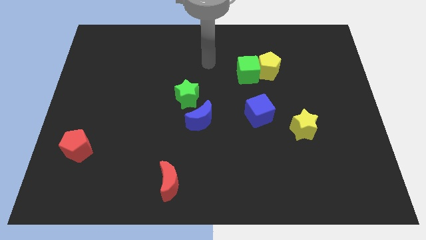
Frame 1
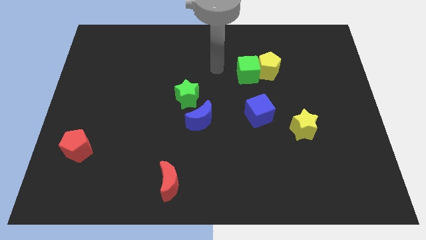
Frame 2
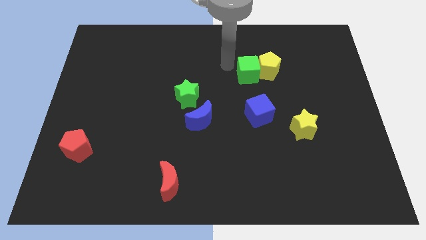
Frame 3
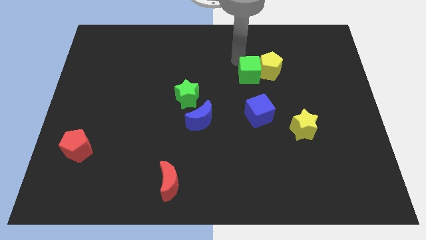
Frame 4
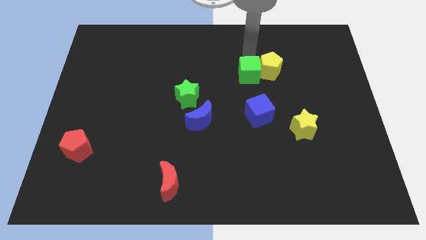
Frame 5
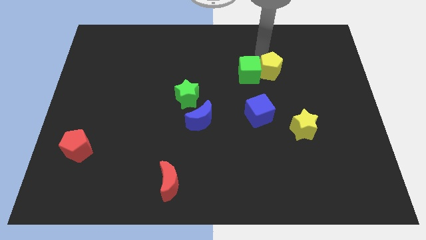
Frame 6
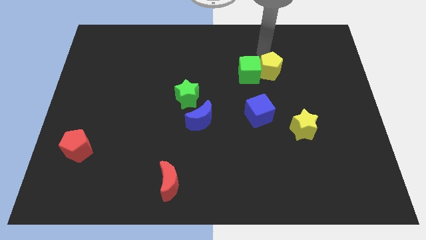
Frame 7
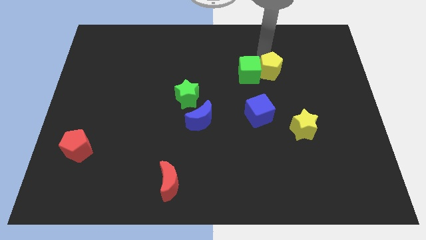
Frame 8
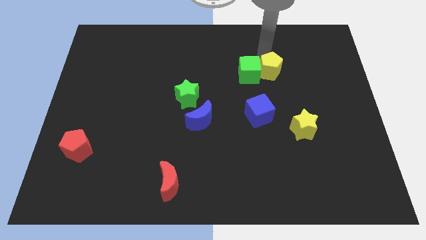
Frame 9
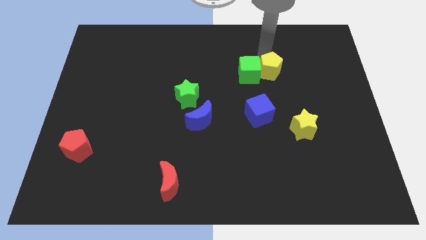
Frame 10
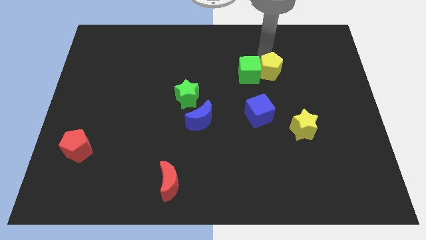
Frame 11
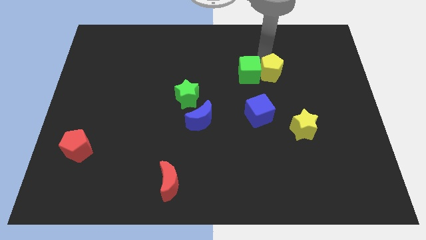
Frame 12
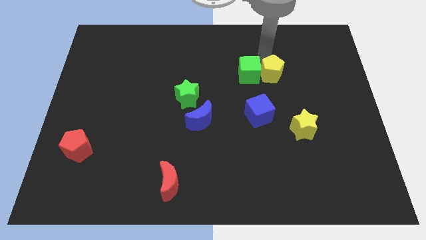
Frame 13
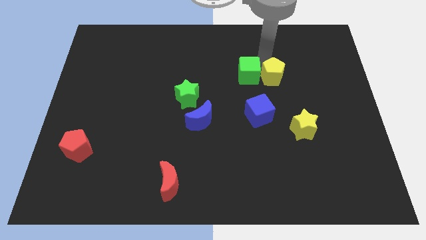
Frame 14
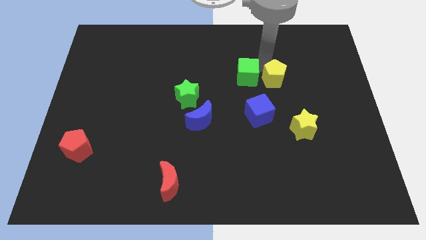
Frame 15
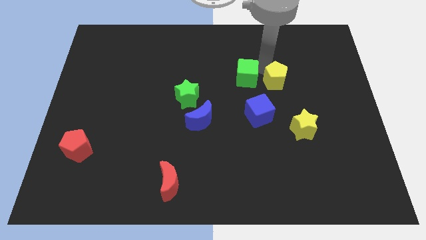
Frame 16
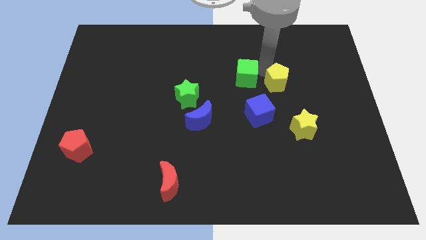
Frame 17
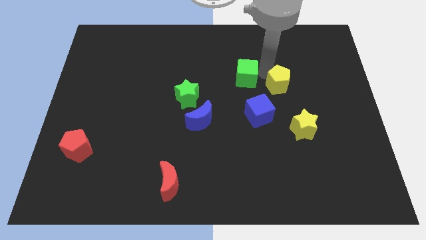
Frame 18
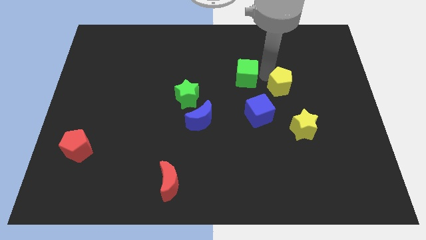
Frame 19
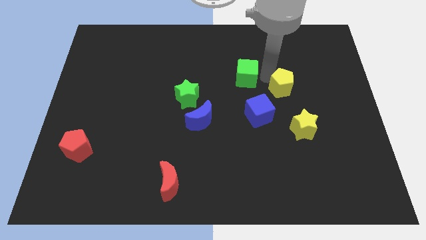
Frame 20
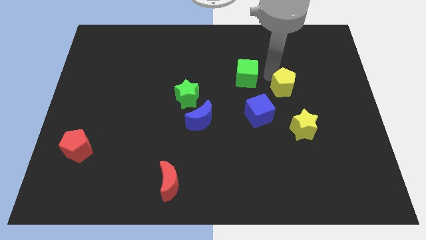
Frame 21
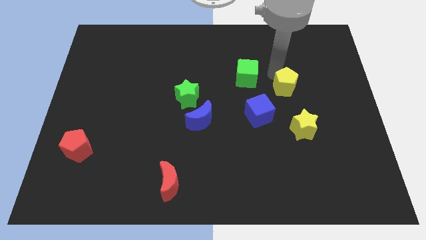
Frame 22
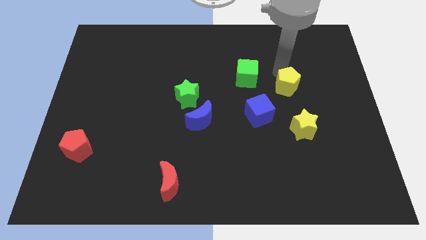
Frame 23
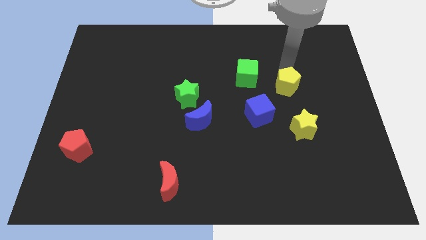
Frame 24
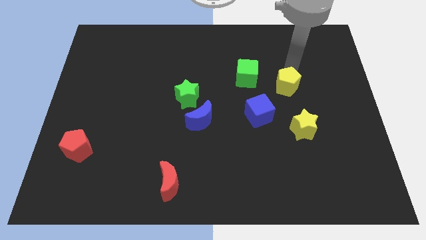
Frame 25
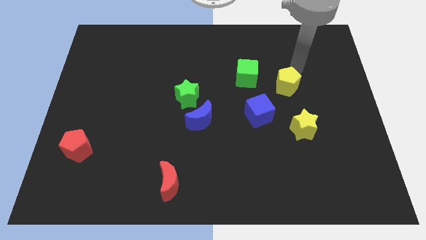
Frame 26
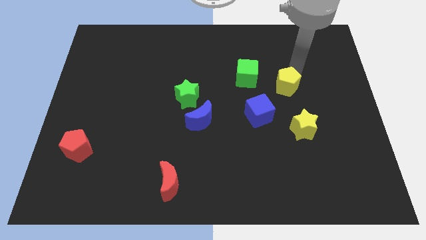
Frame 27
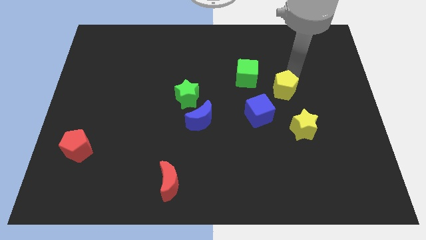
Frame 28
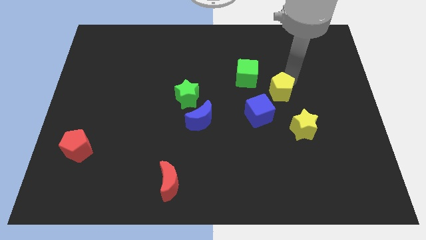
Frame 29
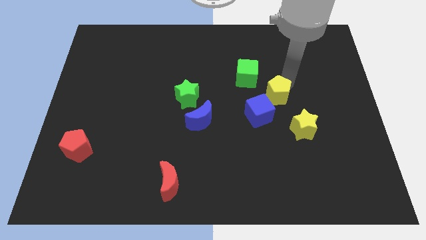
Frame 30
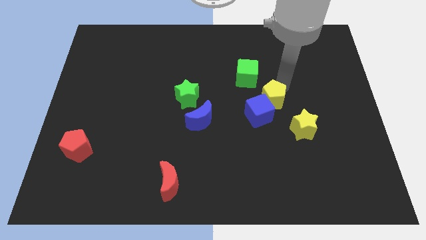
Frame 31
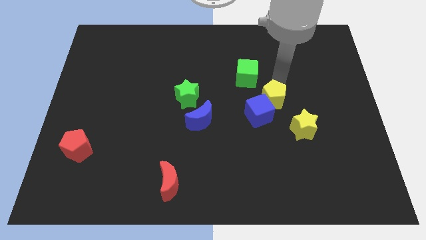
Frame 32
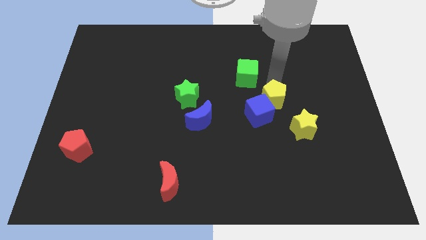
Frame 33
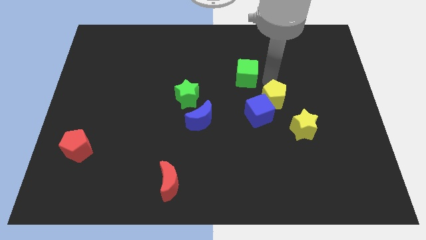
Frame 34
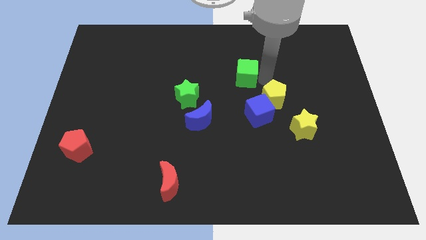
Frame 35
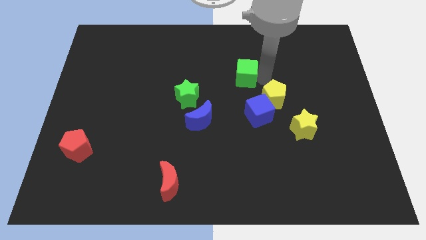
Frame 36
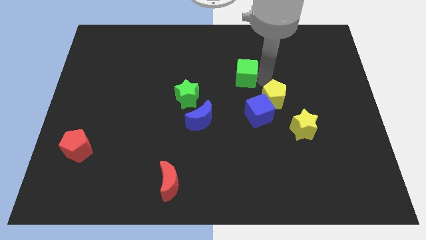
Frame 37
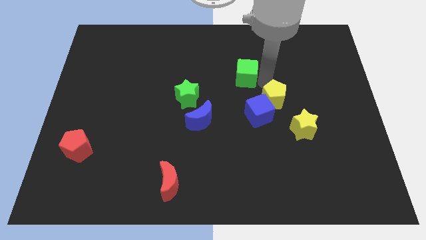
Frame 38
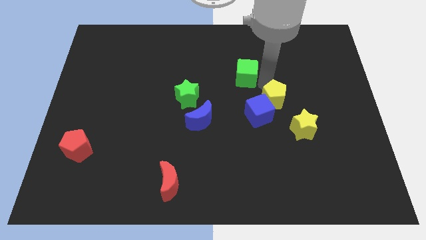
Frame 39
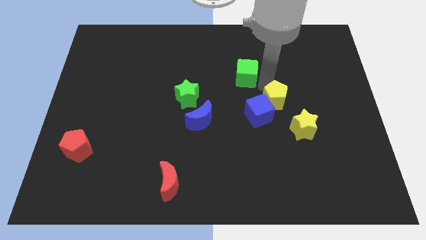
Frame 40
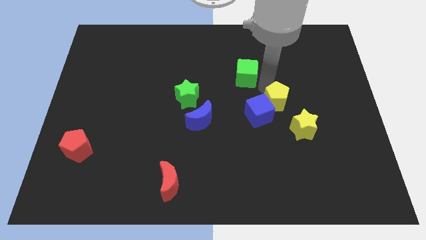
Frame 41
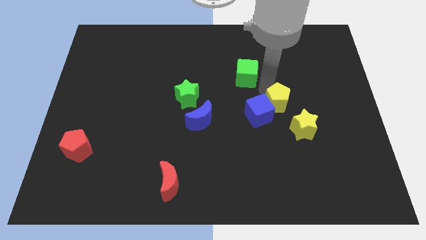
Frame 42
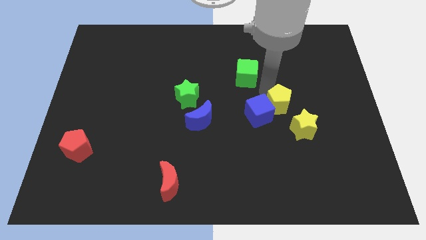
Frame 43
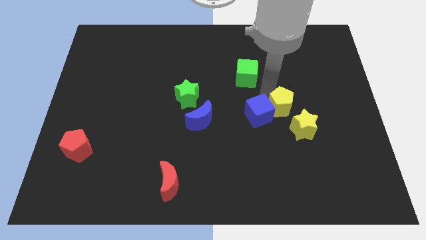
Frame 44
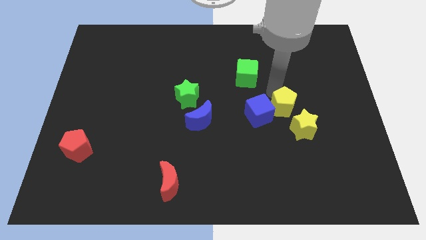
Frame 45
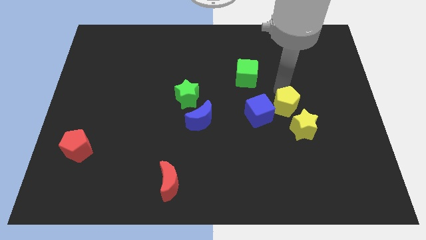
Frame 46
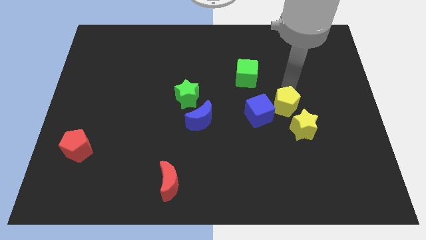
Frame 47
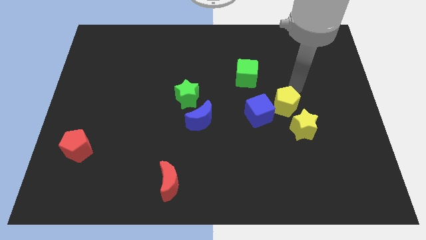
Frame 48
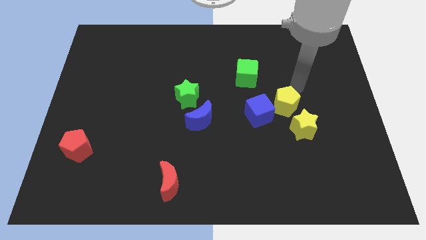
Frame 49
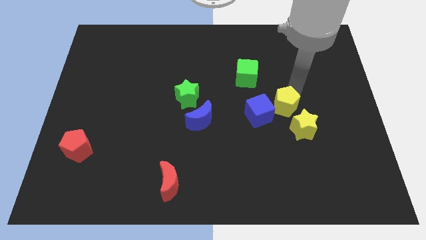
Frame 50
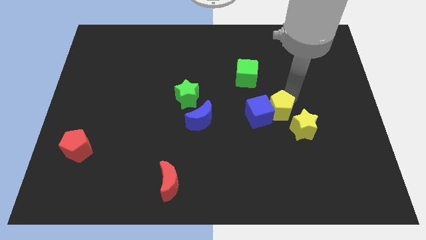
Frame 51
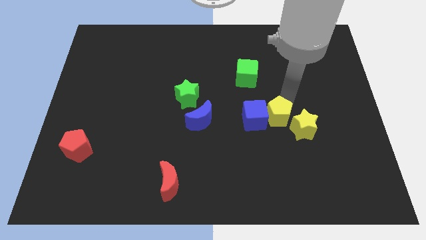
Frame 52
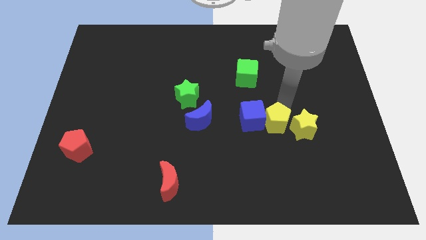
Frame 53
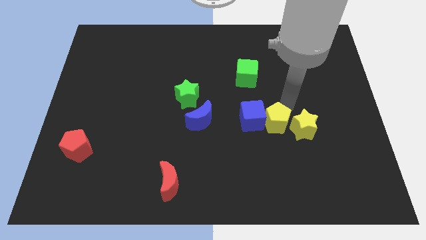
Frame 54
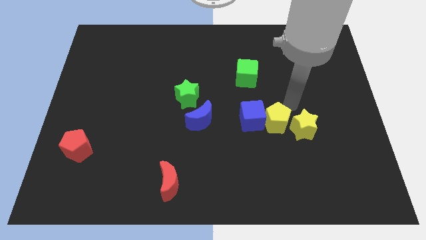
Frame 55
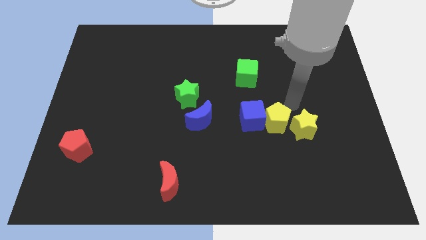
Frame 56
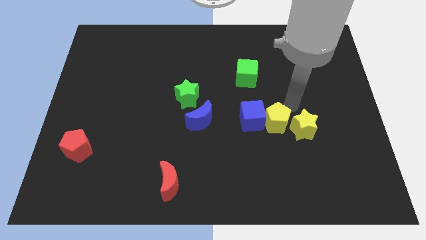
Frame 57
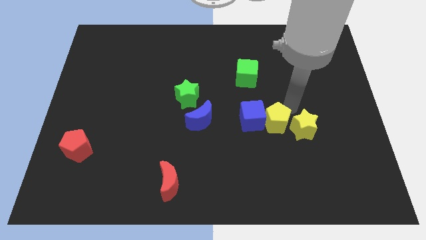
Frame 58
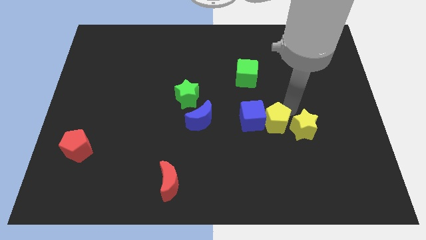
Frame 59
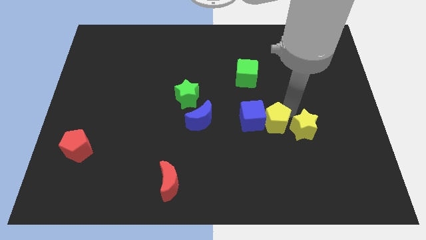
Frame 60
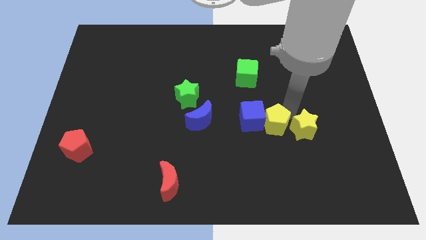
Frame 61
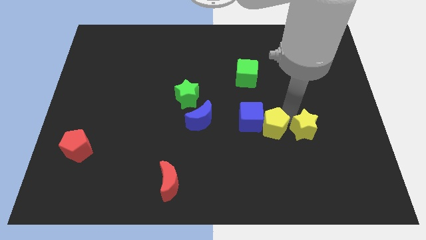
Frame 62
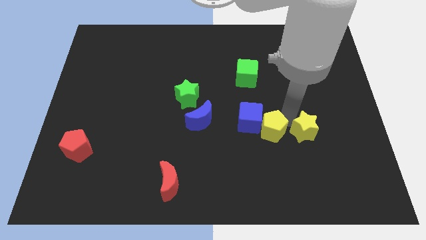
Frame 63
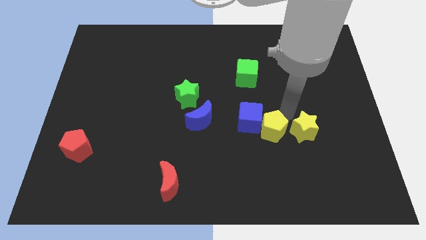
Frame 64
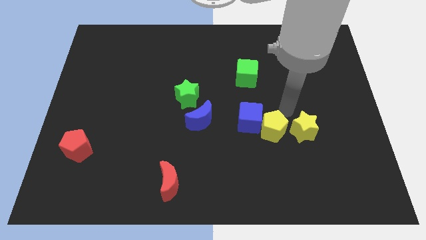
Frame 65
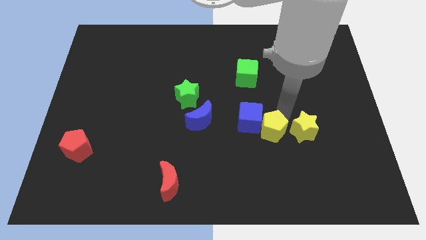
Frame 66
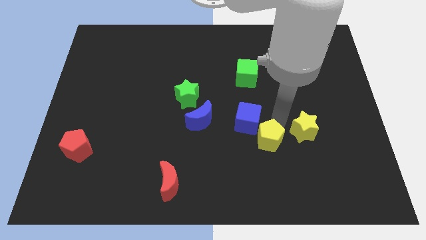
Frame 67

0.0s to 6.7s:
slide the yellow pentagon below the blue cube

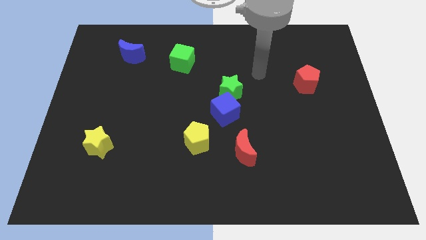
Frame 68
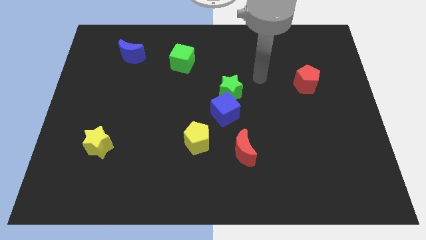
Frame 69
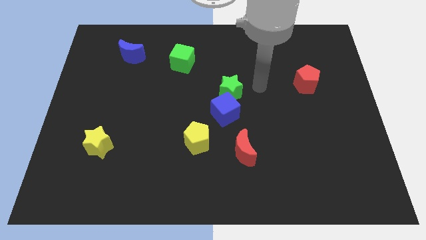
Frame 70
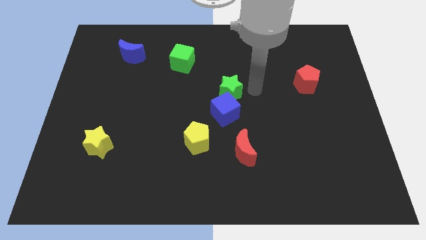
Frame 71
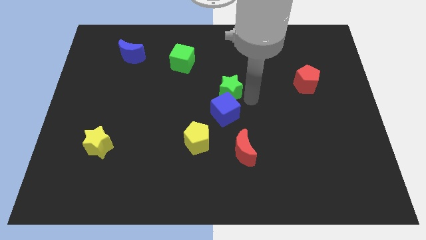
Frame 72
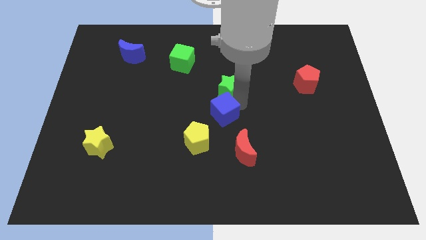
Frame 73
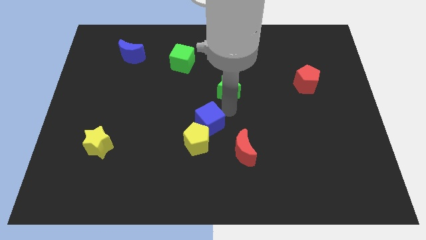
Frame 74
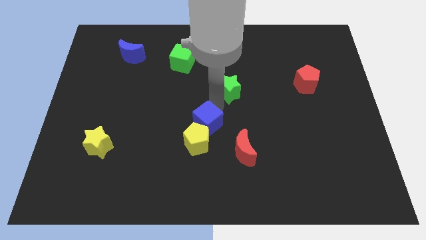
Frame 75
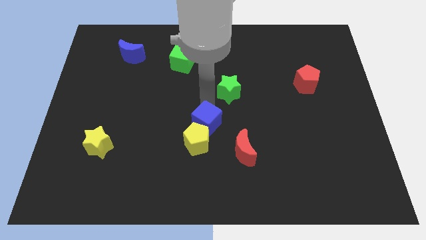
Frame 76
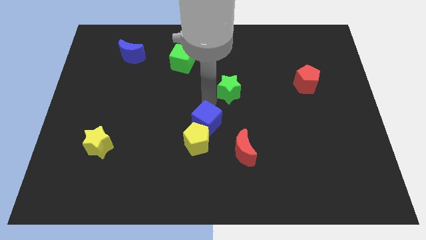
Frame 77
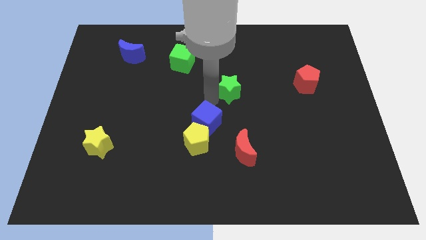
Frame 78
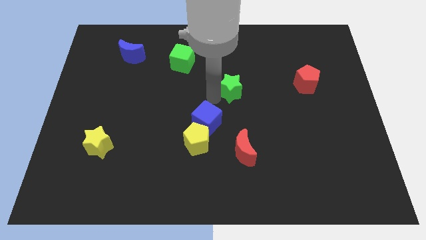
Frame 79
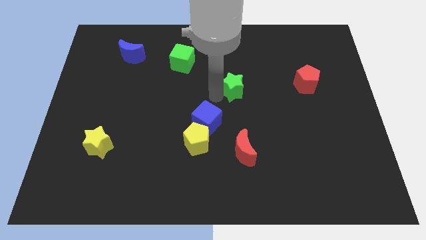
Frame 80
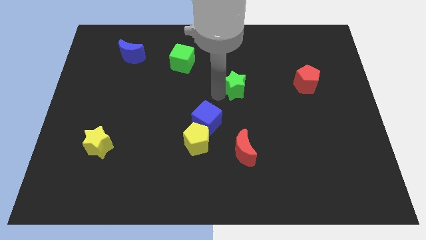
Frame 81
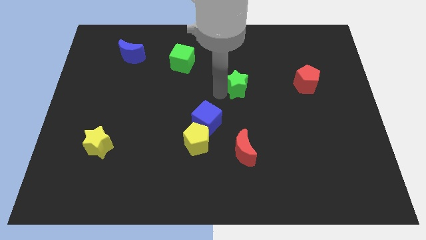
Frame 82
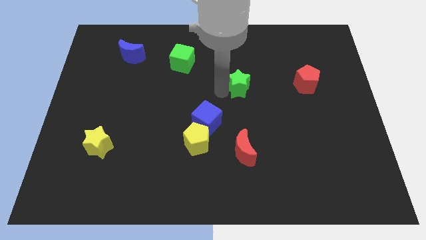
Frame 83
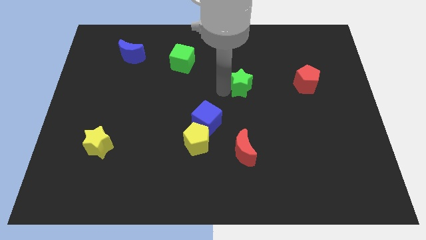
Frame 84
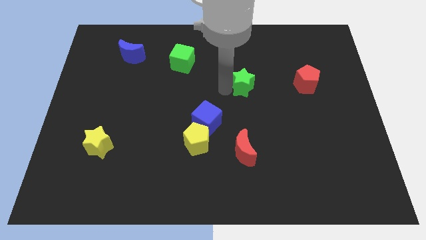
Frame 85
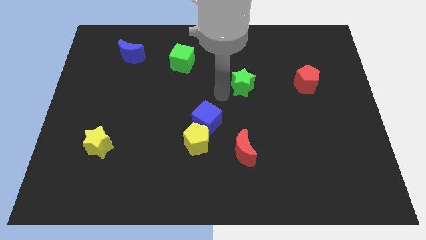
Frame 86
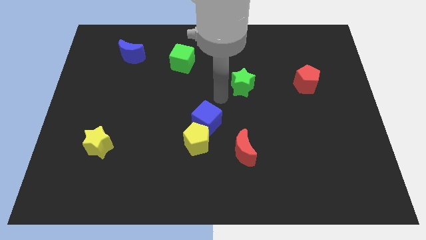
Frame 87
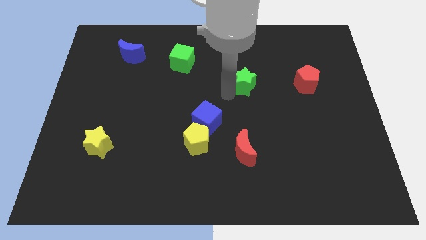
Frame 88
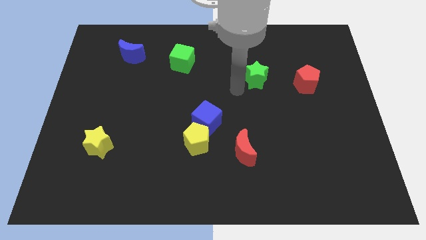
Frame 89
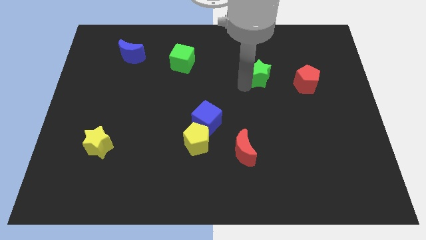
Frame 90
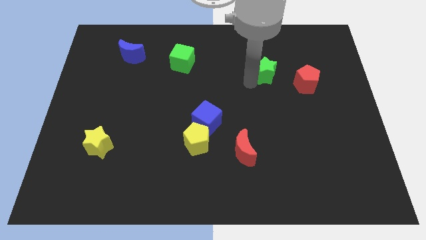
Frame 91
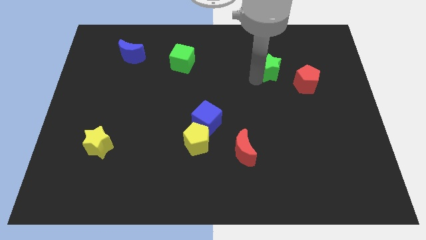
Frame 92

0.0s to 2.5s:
put the green star diagonally up and to the left of the red pentagon
